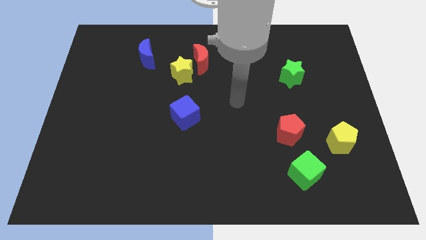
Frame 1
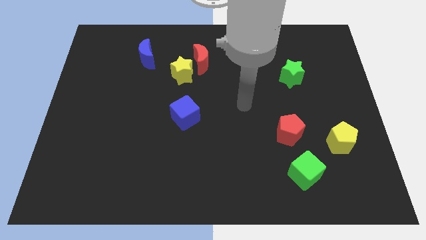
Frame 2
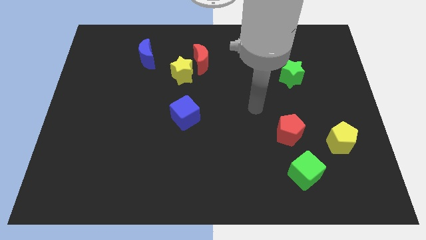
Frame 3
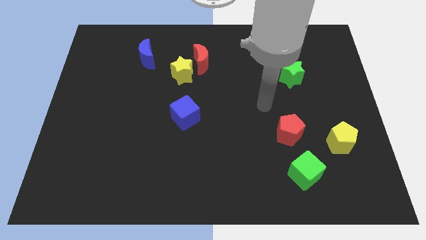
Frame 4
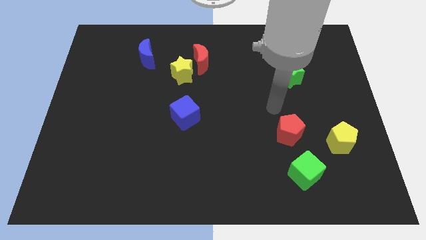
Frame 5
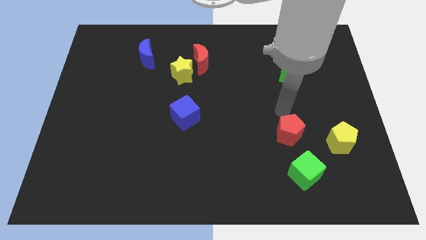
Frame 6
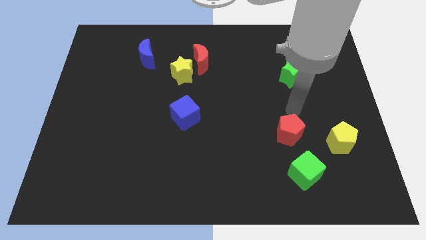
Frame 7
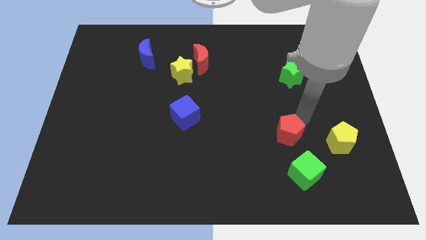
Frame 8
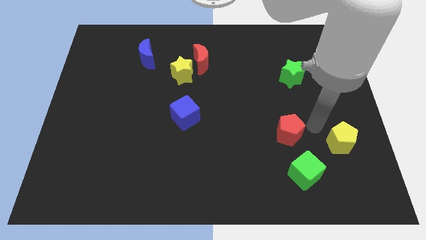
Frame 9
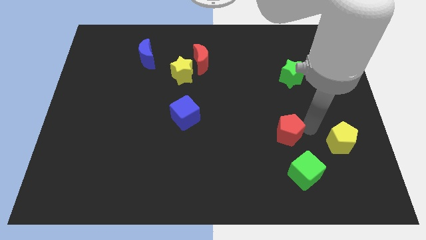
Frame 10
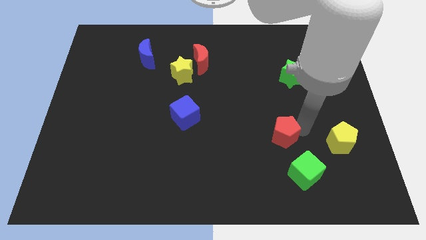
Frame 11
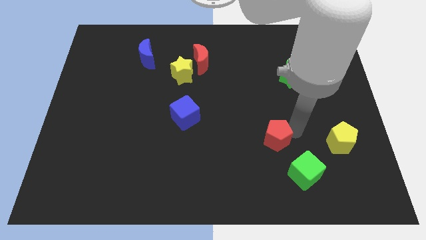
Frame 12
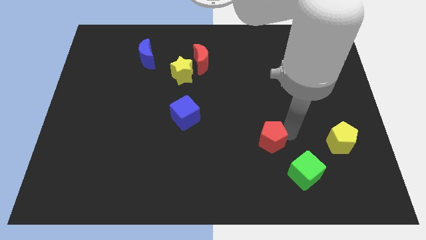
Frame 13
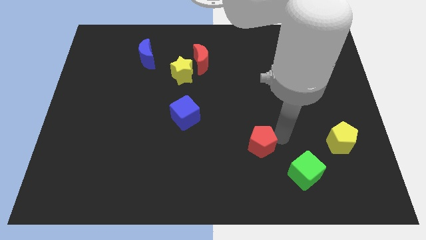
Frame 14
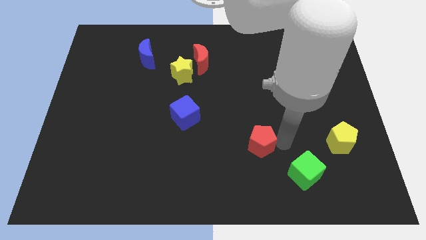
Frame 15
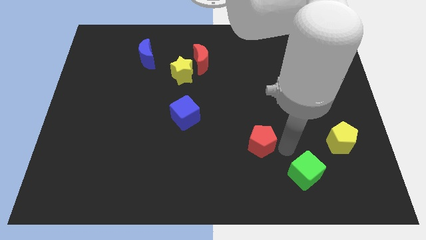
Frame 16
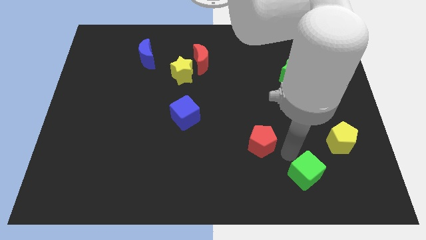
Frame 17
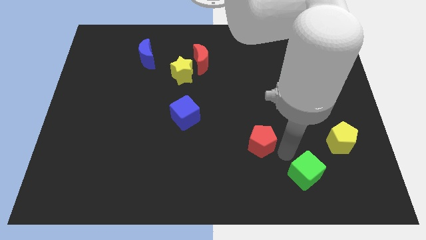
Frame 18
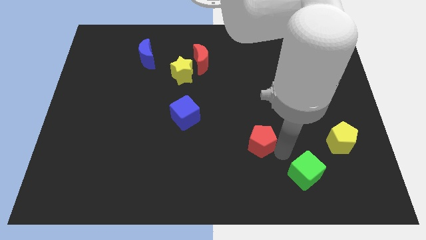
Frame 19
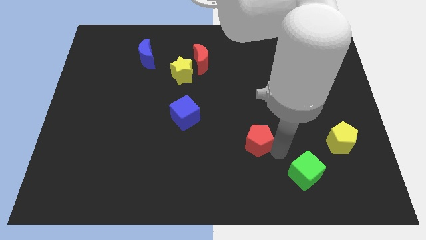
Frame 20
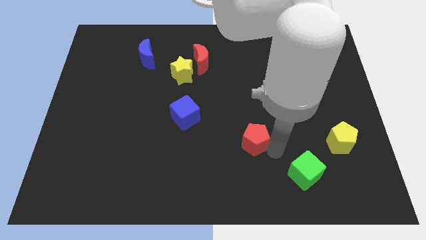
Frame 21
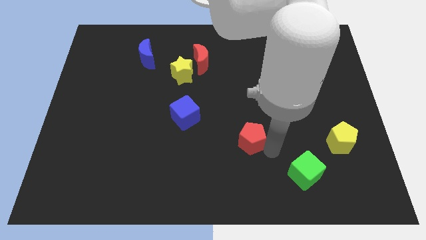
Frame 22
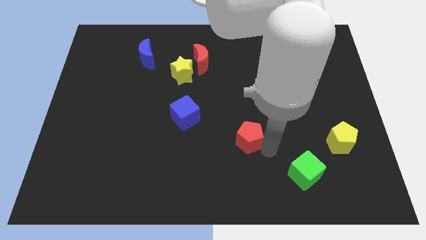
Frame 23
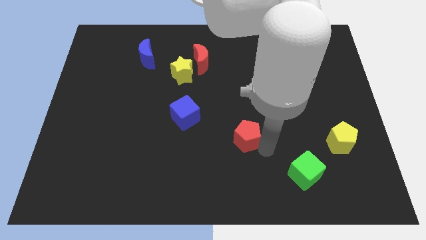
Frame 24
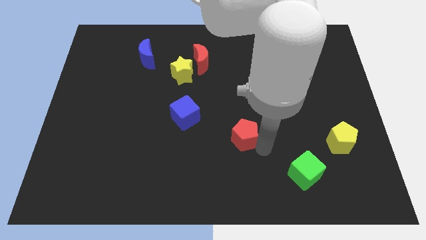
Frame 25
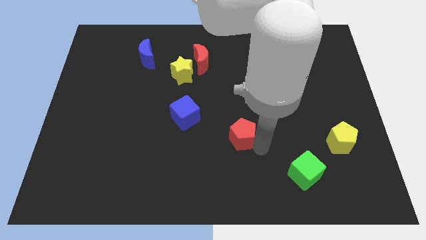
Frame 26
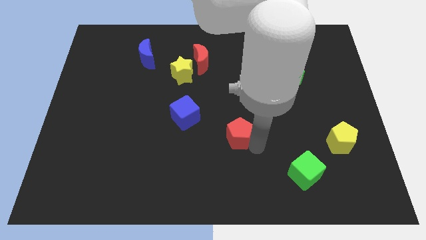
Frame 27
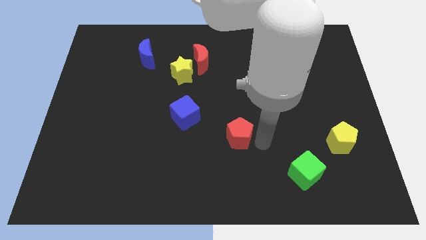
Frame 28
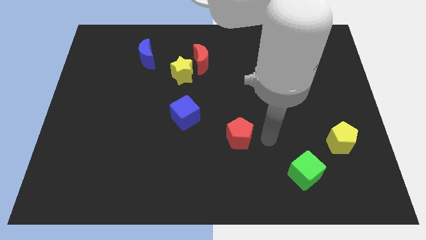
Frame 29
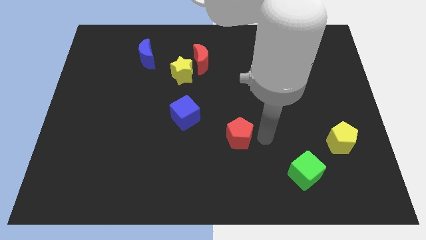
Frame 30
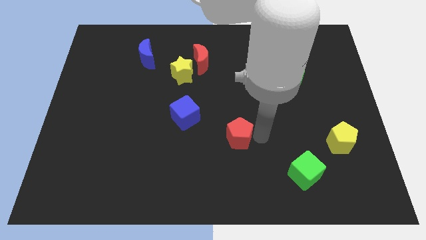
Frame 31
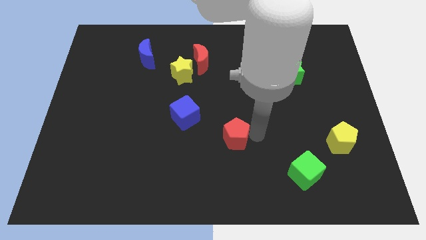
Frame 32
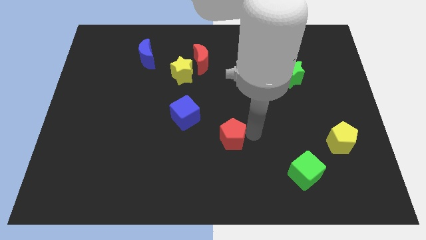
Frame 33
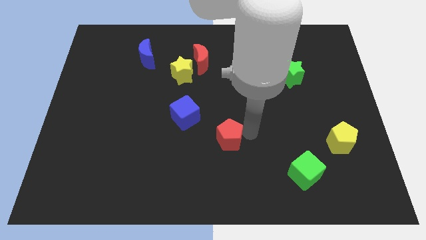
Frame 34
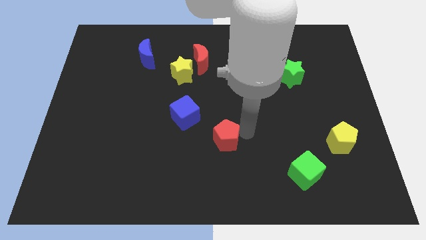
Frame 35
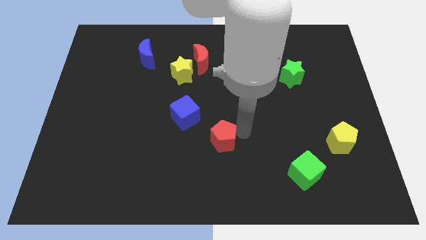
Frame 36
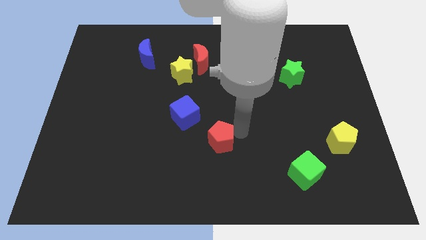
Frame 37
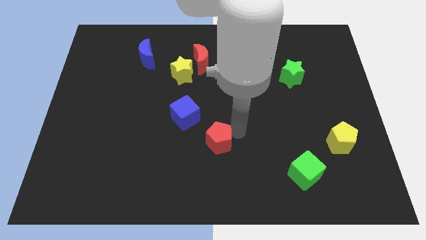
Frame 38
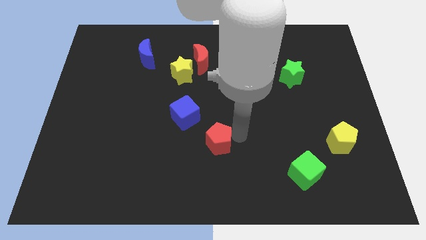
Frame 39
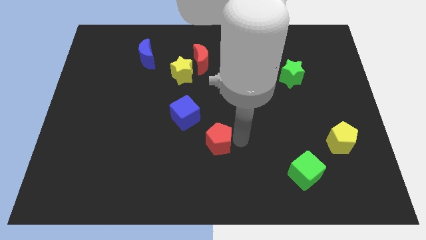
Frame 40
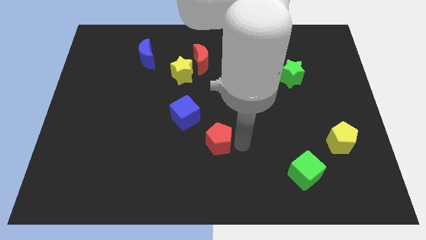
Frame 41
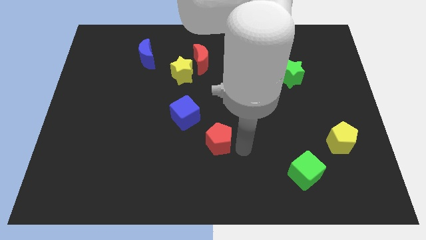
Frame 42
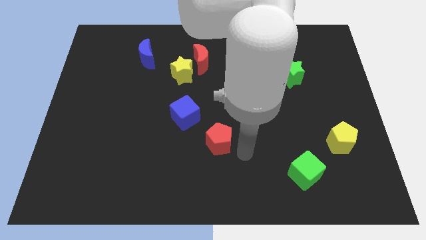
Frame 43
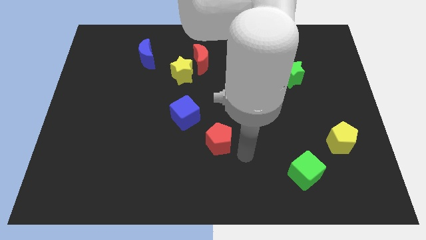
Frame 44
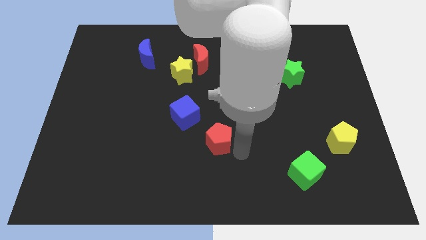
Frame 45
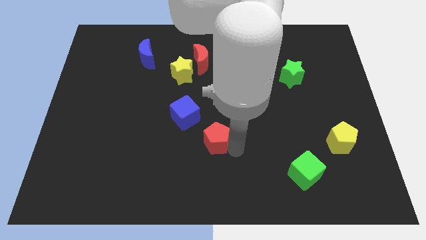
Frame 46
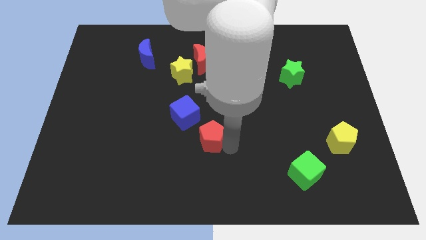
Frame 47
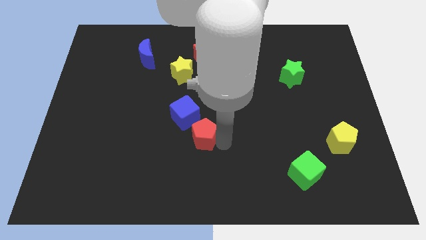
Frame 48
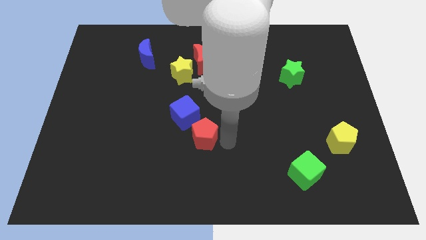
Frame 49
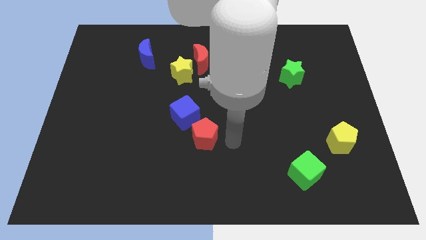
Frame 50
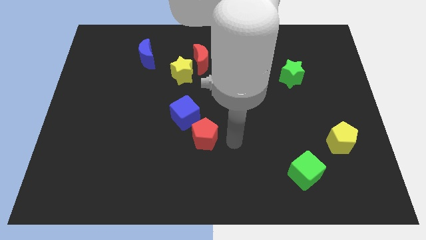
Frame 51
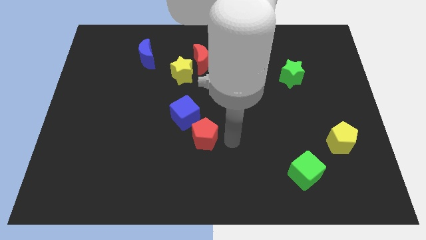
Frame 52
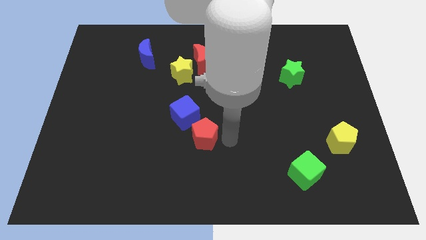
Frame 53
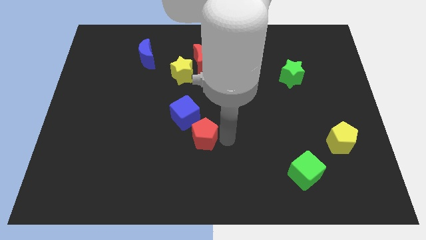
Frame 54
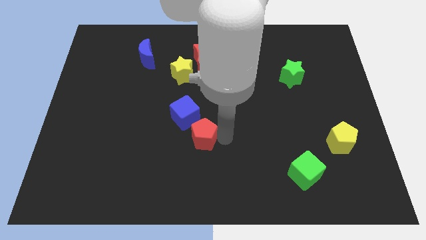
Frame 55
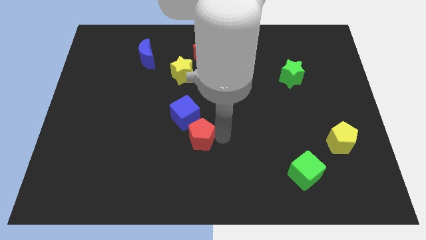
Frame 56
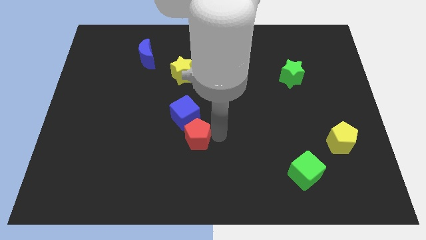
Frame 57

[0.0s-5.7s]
push the red pentagon to the left

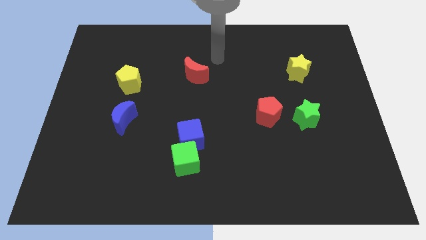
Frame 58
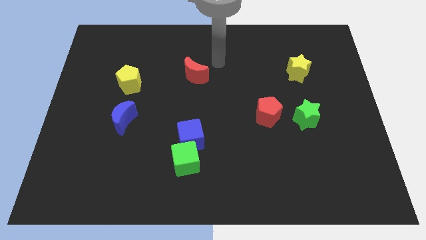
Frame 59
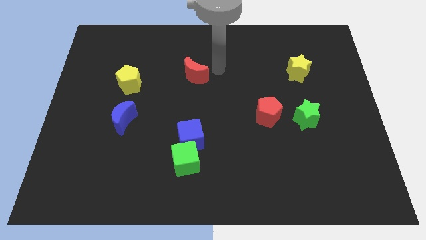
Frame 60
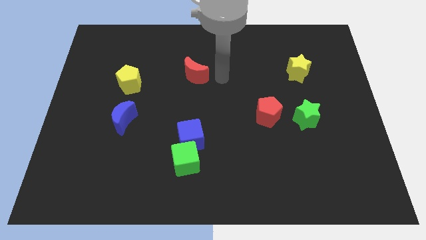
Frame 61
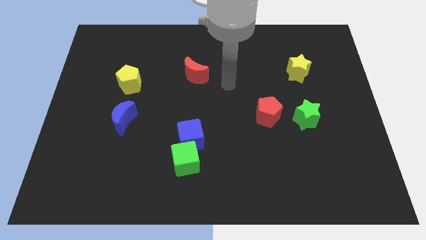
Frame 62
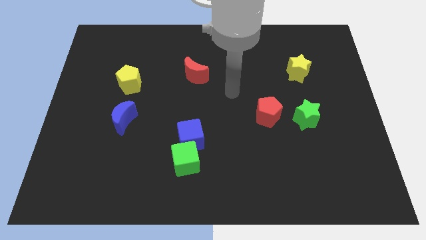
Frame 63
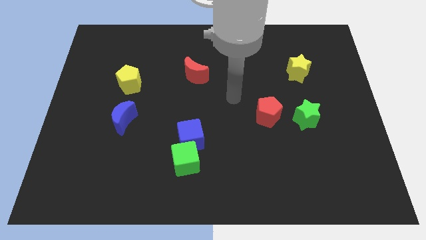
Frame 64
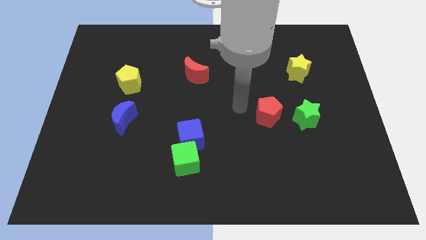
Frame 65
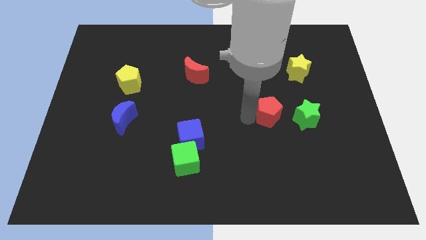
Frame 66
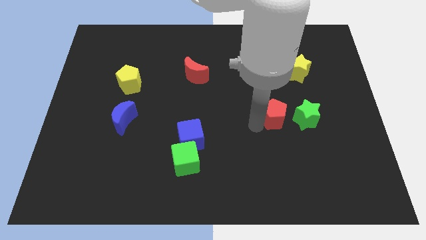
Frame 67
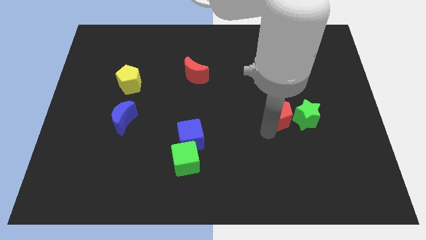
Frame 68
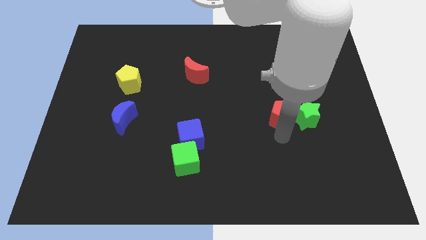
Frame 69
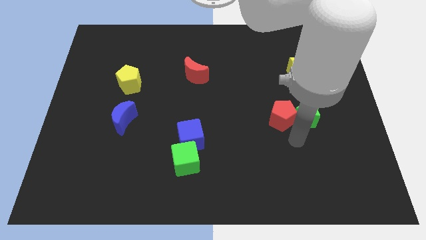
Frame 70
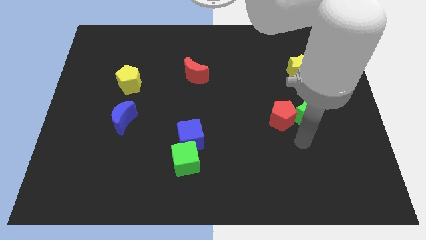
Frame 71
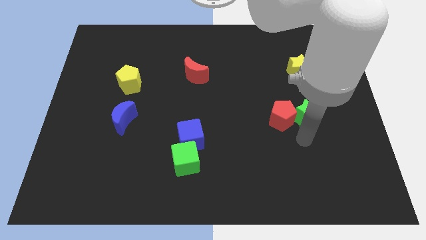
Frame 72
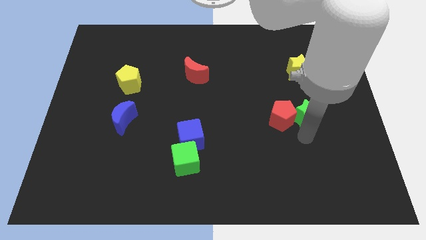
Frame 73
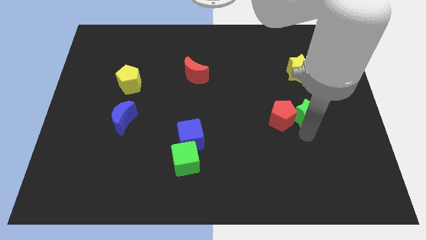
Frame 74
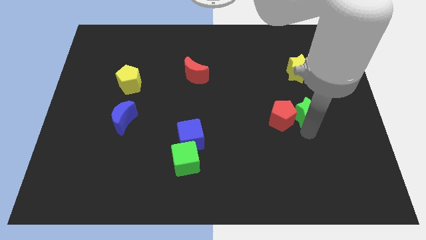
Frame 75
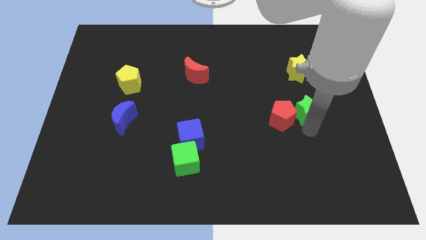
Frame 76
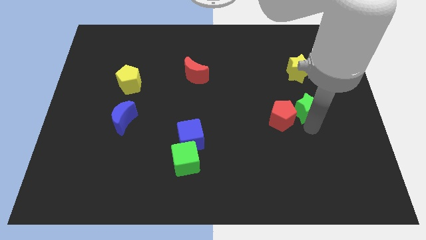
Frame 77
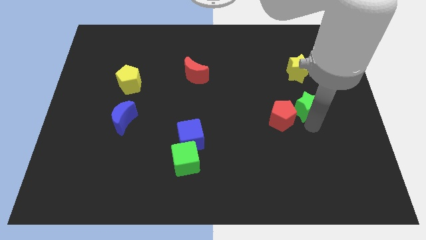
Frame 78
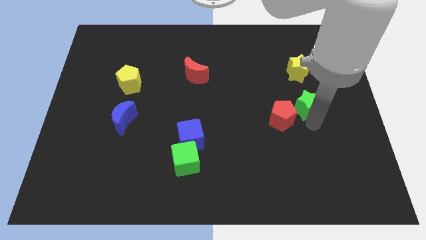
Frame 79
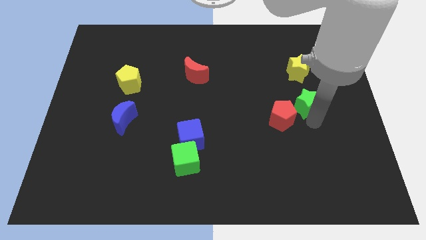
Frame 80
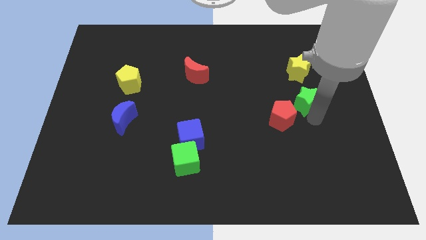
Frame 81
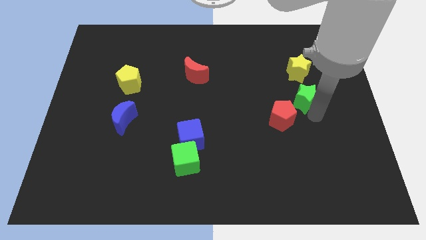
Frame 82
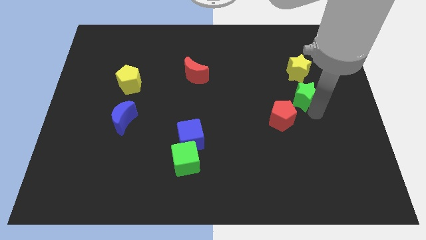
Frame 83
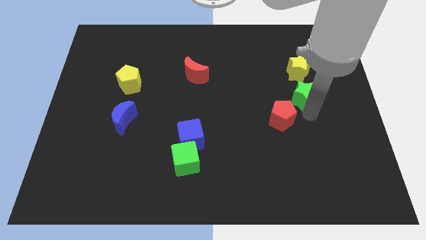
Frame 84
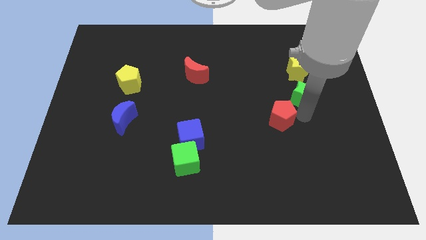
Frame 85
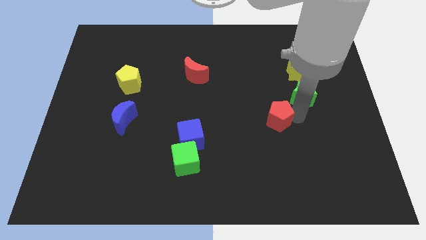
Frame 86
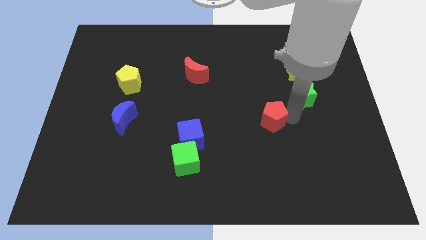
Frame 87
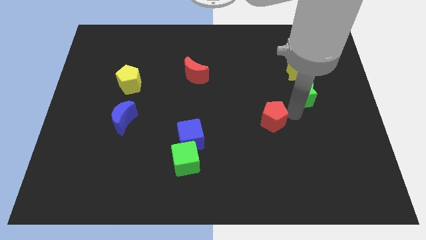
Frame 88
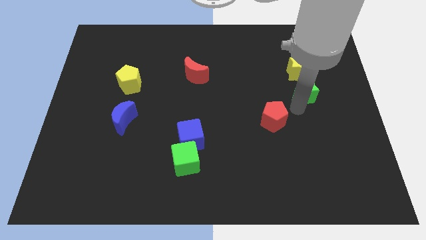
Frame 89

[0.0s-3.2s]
slightly move the green star up
